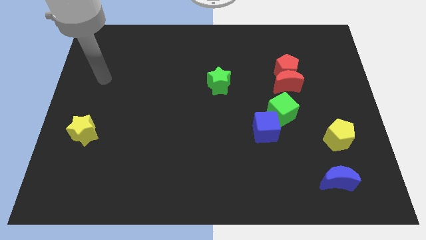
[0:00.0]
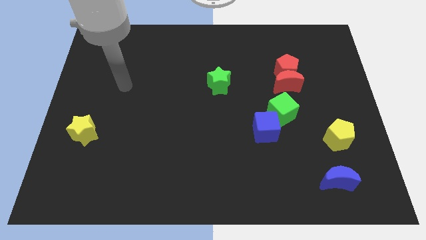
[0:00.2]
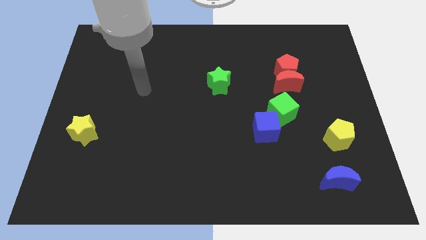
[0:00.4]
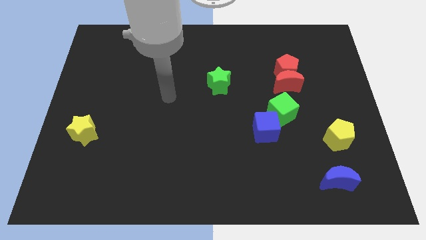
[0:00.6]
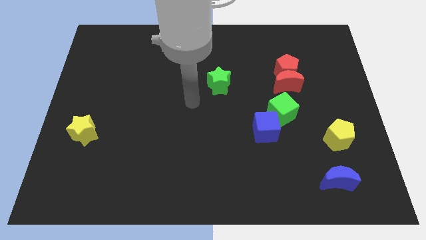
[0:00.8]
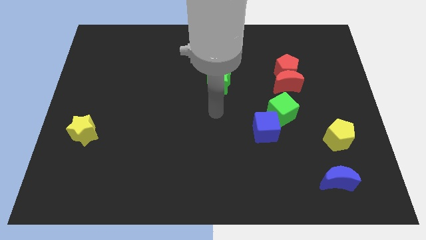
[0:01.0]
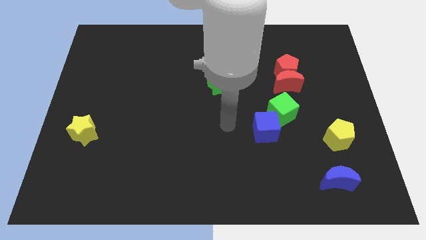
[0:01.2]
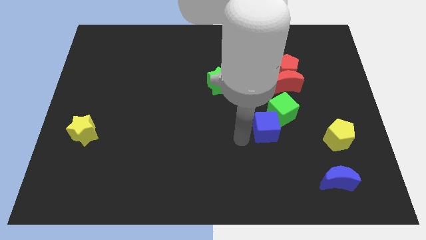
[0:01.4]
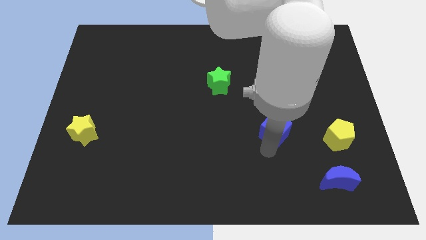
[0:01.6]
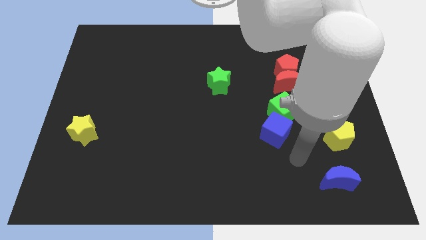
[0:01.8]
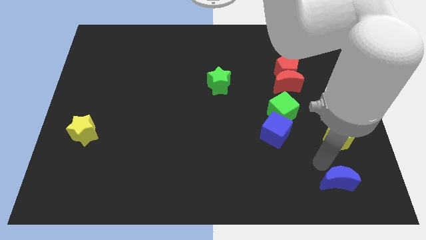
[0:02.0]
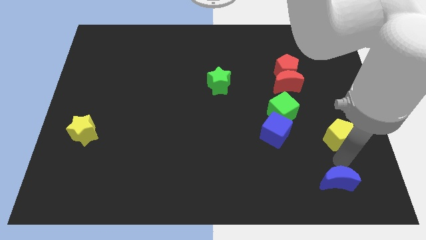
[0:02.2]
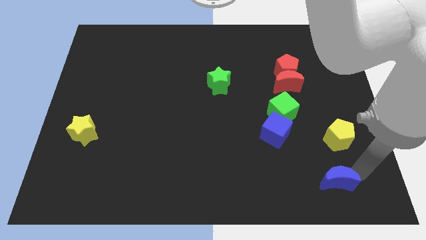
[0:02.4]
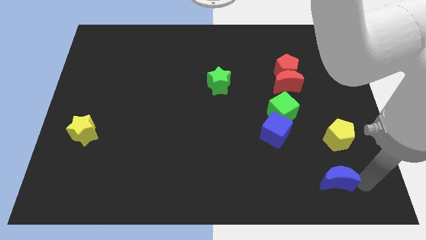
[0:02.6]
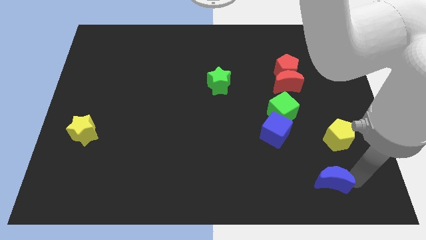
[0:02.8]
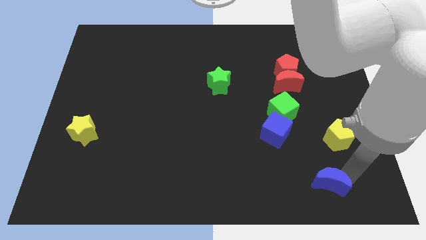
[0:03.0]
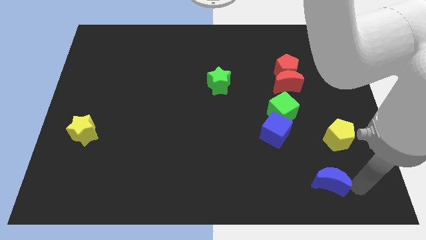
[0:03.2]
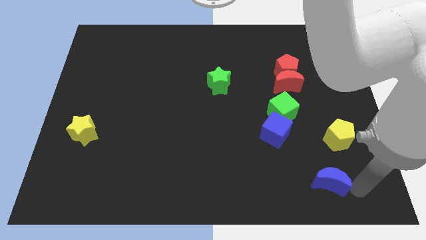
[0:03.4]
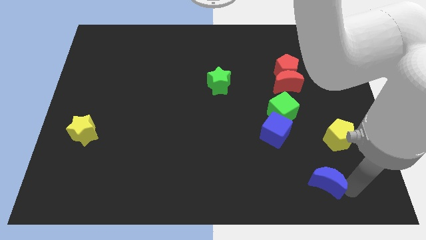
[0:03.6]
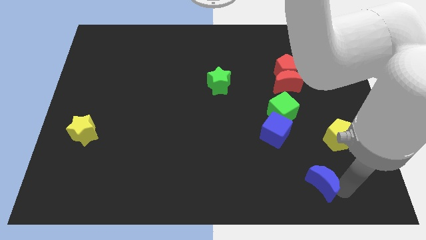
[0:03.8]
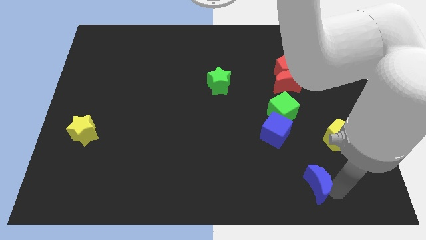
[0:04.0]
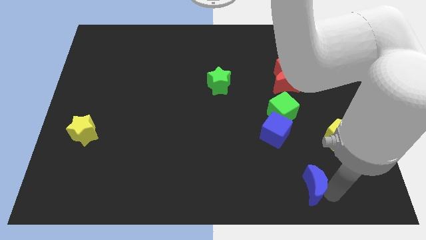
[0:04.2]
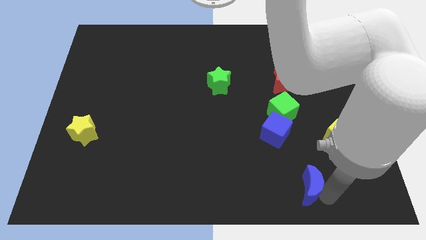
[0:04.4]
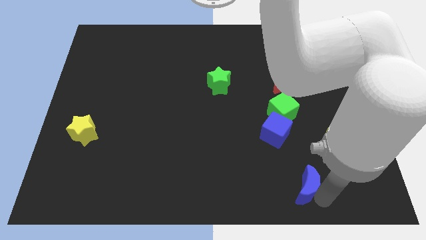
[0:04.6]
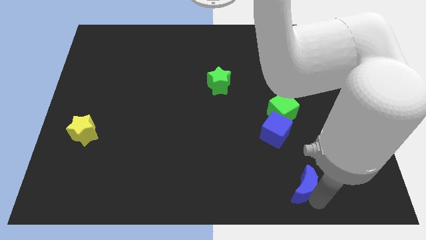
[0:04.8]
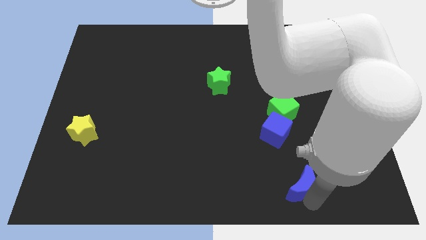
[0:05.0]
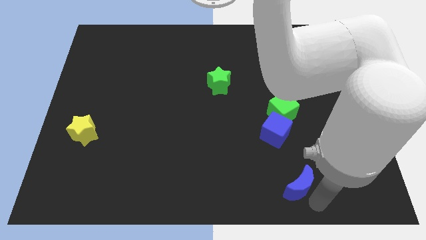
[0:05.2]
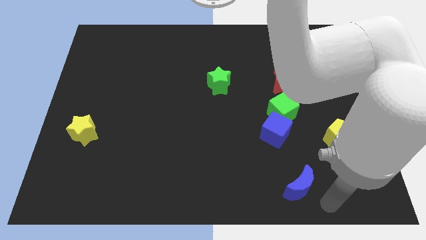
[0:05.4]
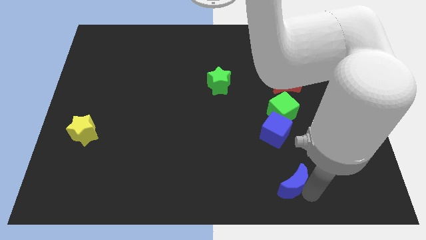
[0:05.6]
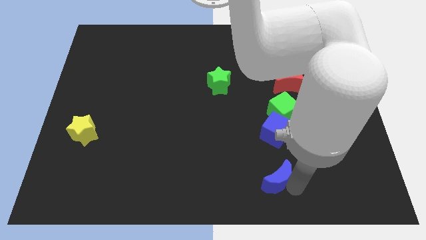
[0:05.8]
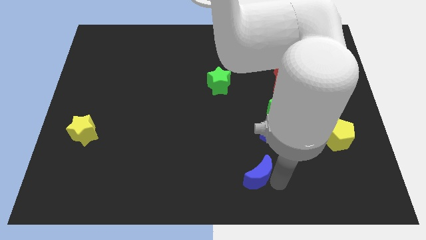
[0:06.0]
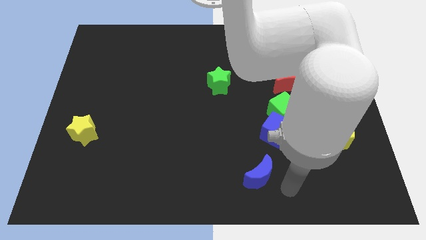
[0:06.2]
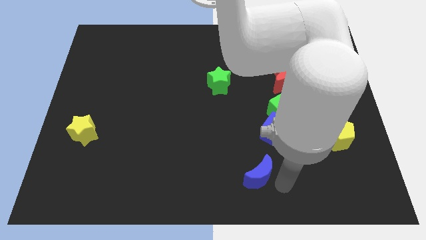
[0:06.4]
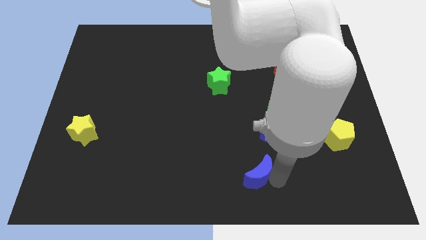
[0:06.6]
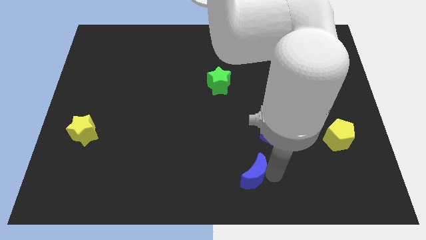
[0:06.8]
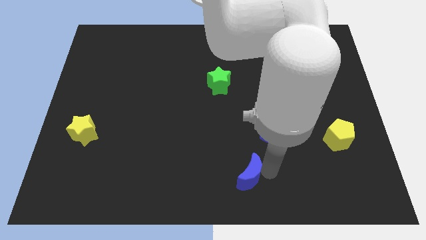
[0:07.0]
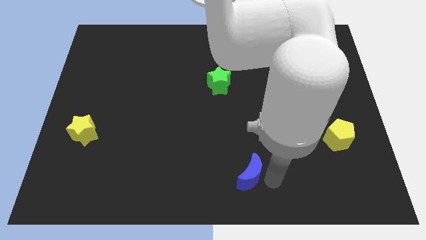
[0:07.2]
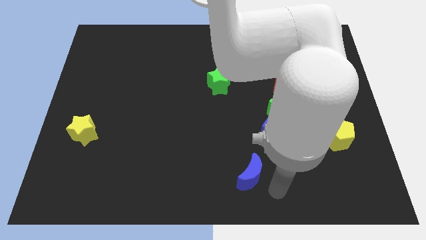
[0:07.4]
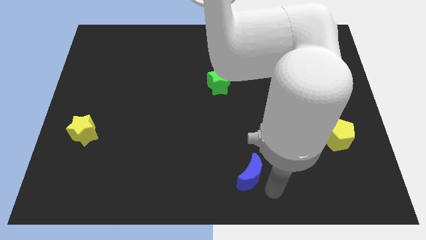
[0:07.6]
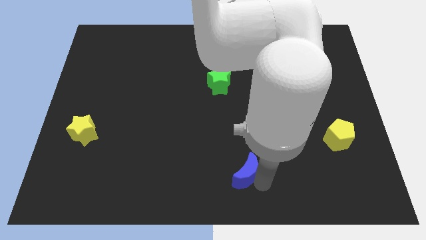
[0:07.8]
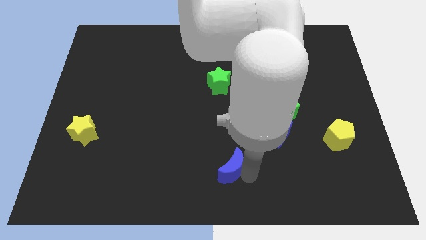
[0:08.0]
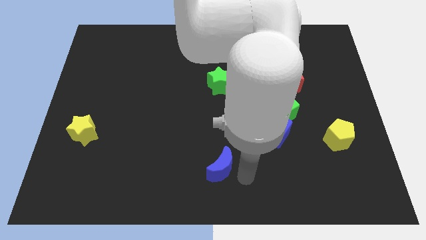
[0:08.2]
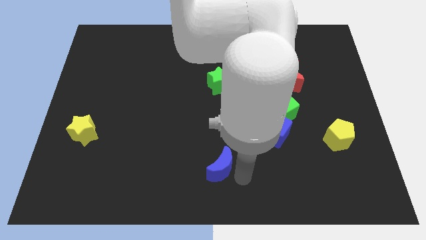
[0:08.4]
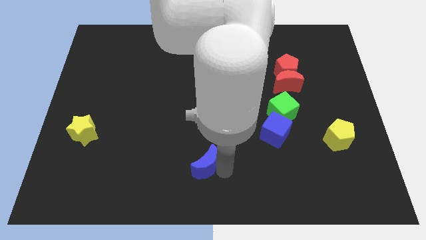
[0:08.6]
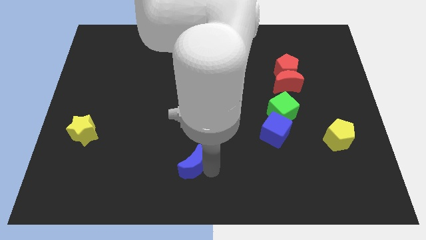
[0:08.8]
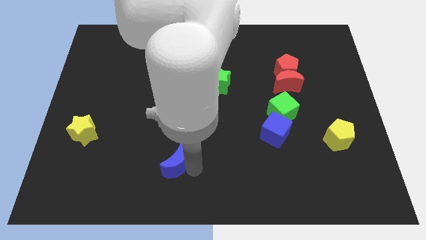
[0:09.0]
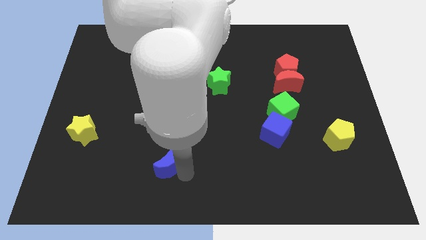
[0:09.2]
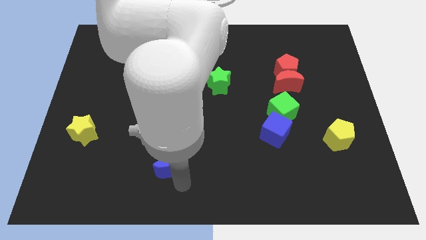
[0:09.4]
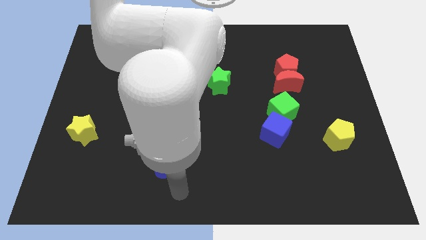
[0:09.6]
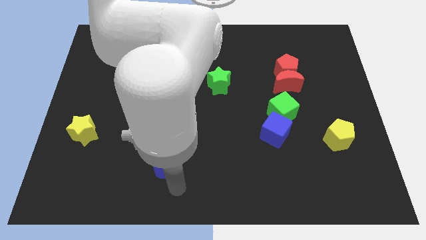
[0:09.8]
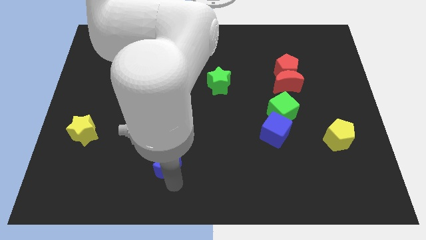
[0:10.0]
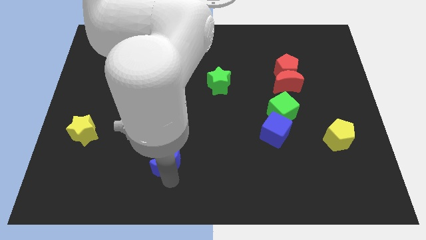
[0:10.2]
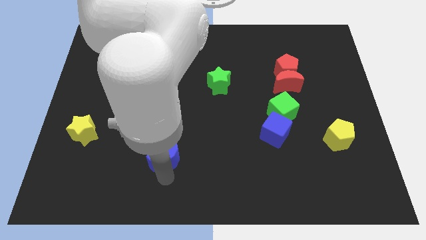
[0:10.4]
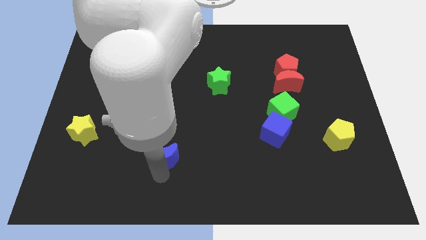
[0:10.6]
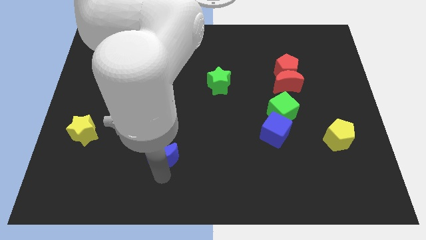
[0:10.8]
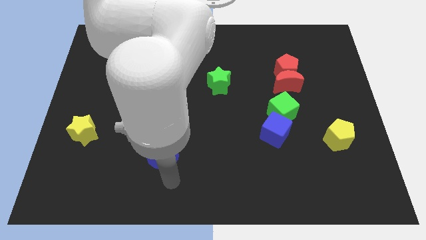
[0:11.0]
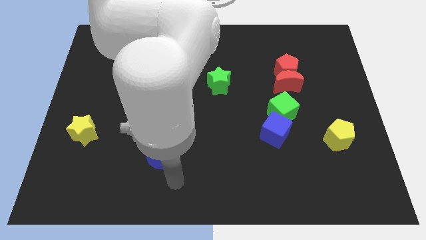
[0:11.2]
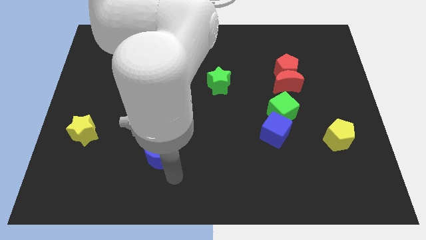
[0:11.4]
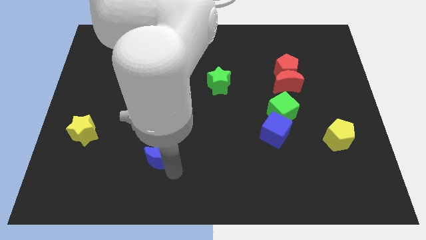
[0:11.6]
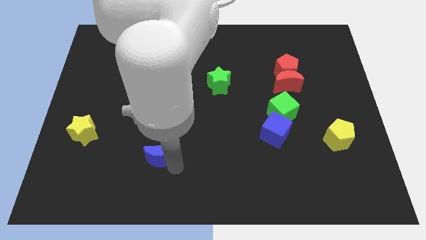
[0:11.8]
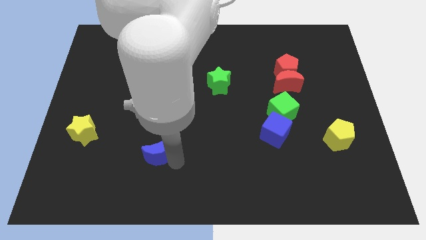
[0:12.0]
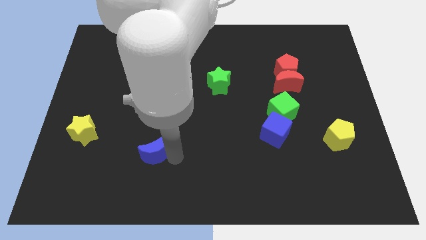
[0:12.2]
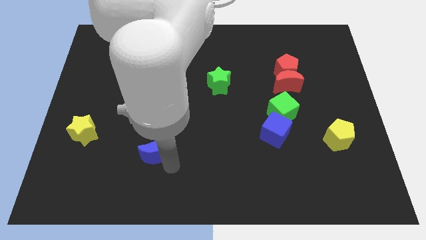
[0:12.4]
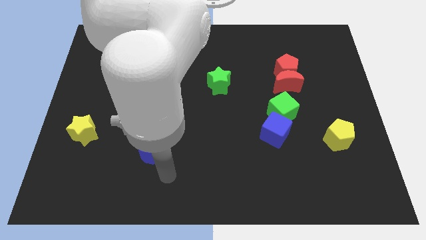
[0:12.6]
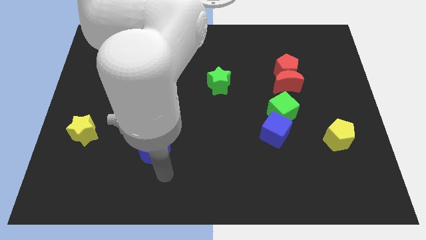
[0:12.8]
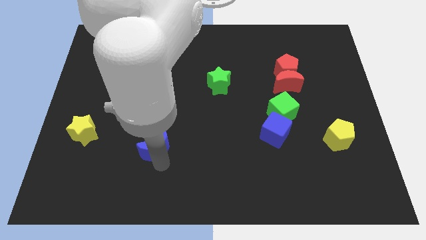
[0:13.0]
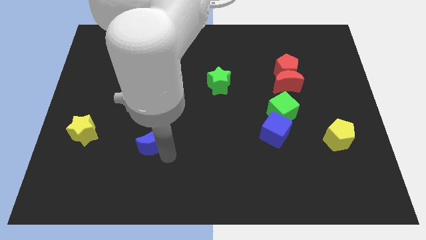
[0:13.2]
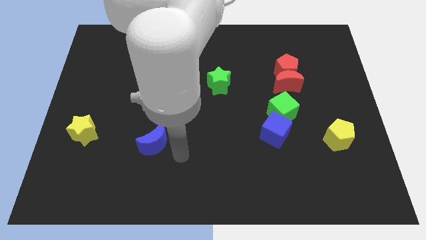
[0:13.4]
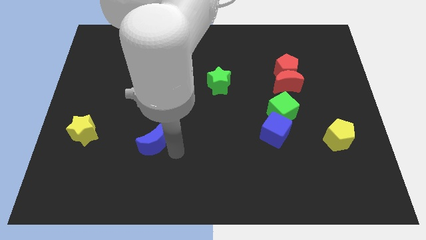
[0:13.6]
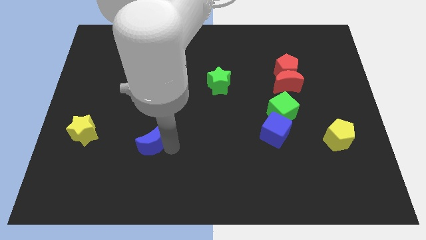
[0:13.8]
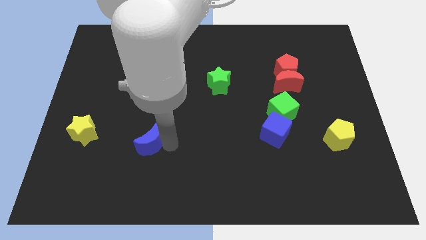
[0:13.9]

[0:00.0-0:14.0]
move the blue moon to the right of the yellow star
